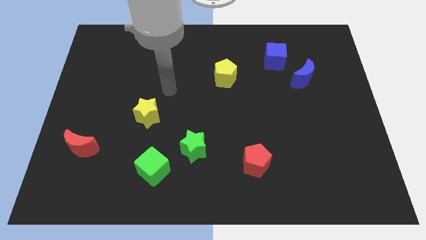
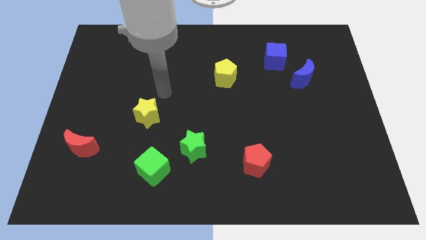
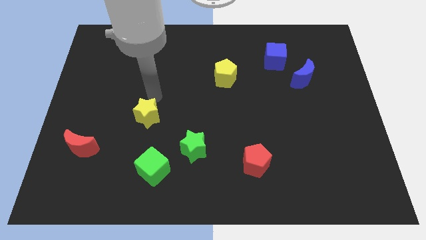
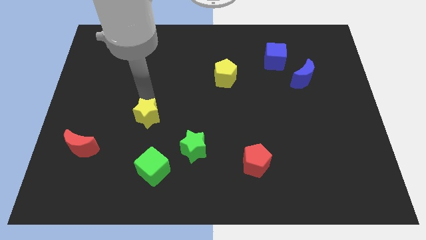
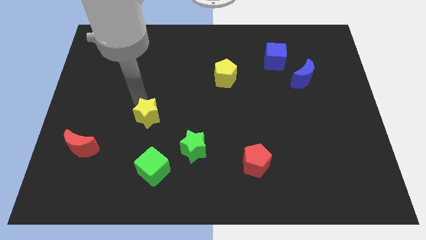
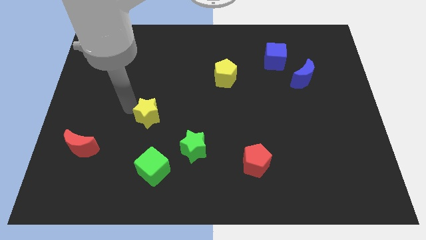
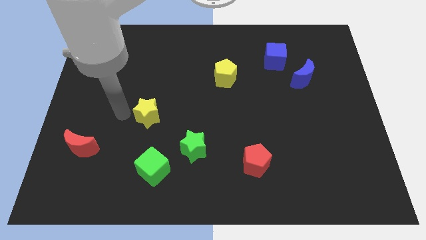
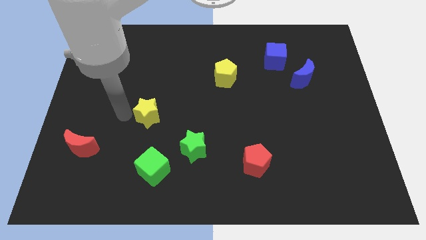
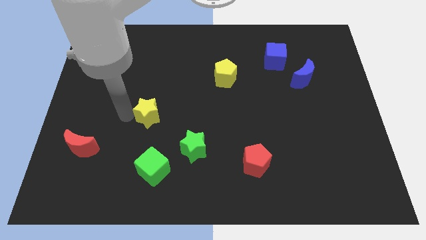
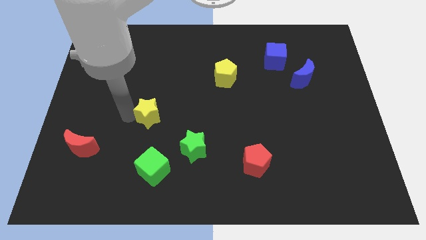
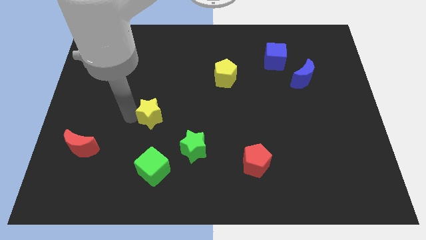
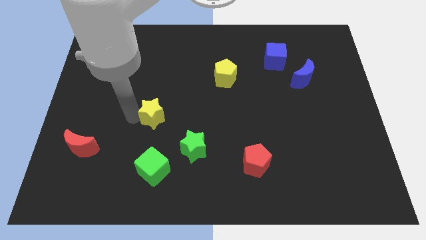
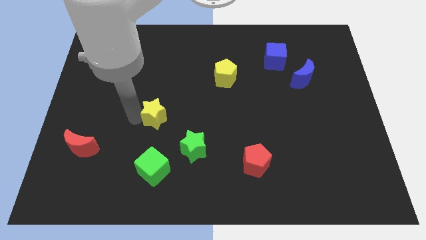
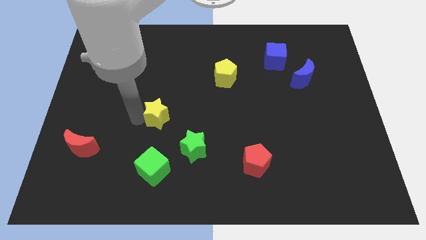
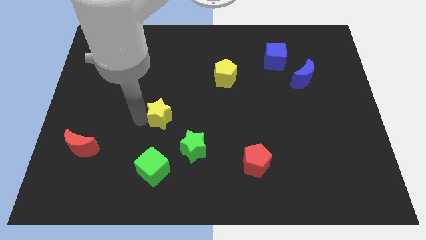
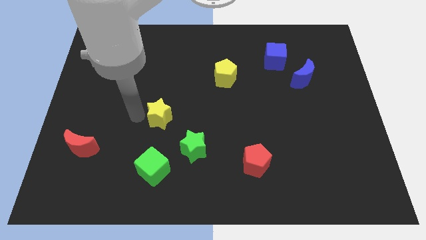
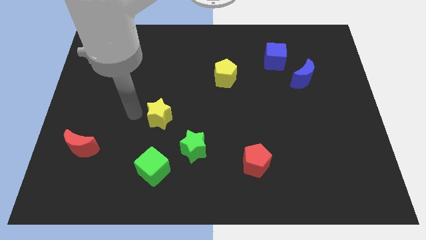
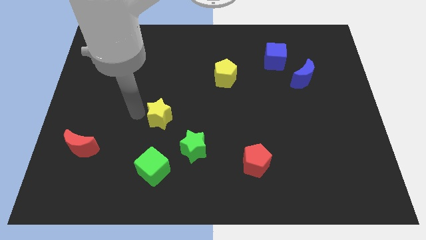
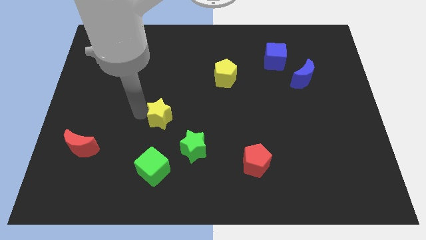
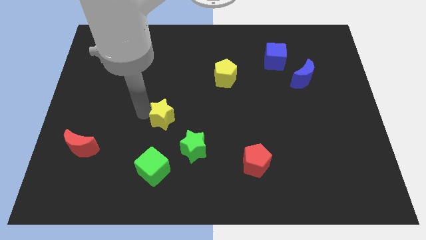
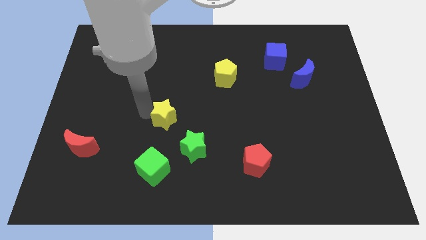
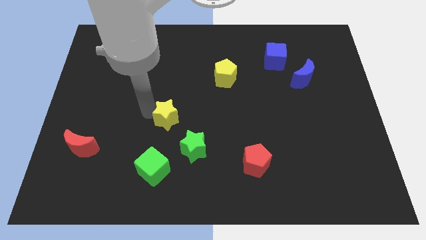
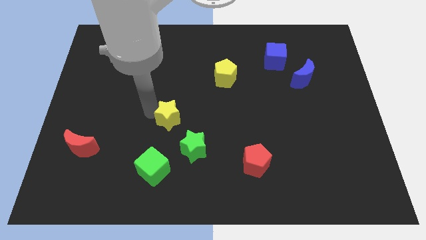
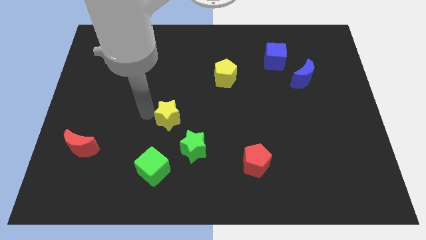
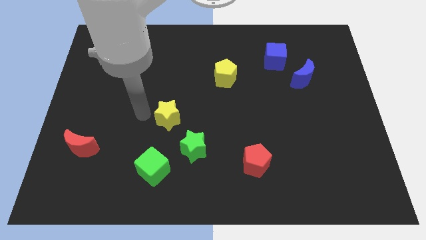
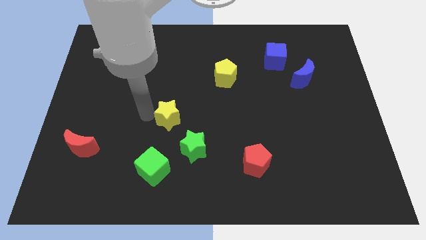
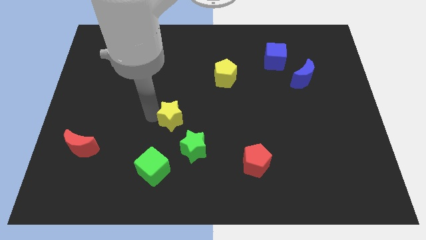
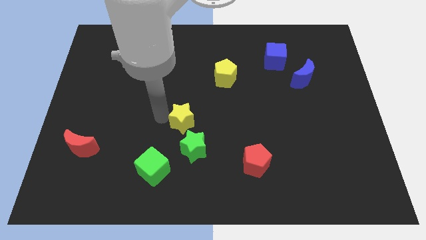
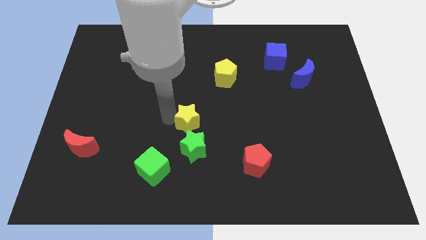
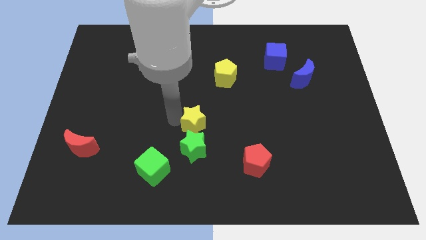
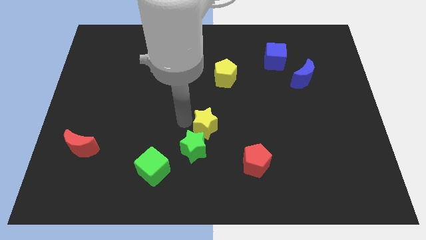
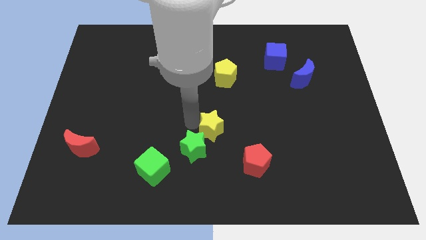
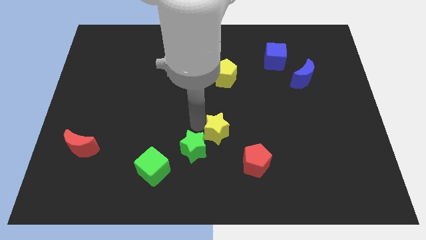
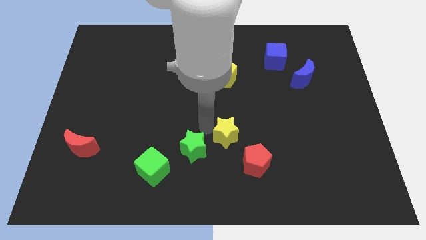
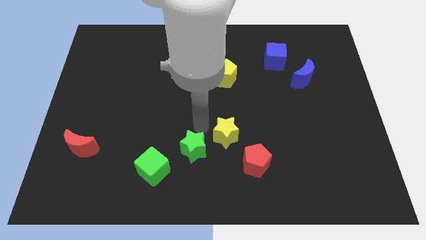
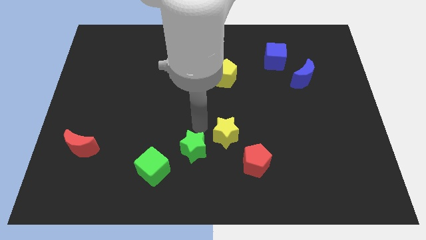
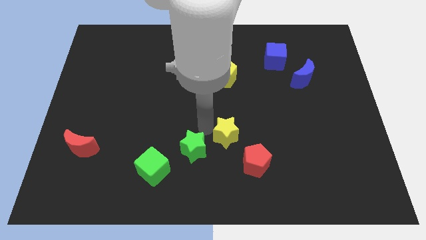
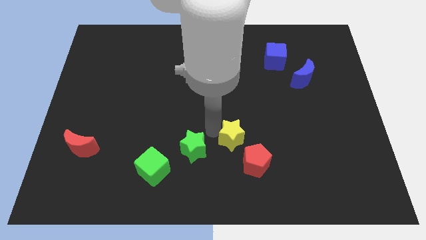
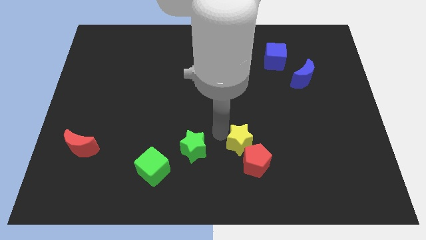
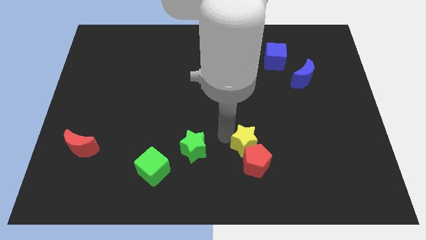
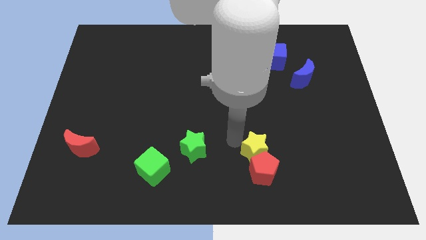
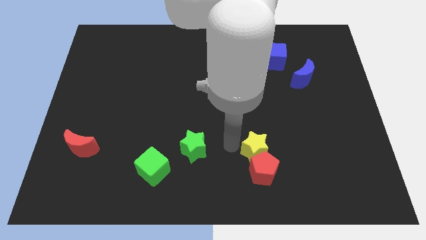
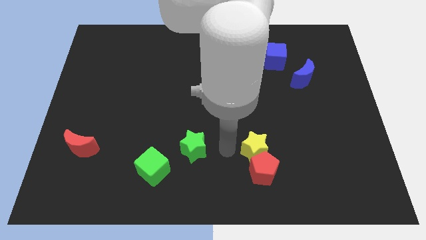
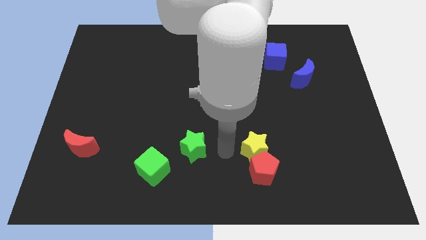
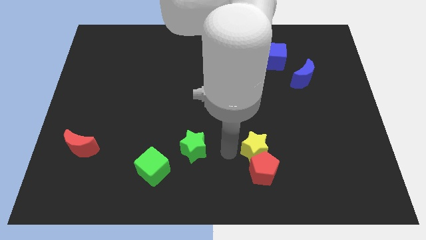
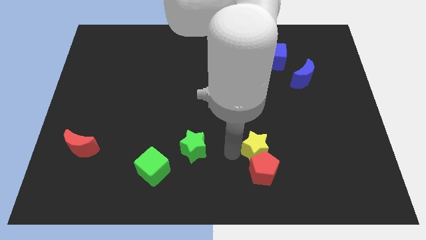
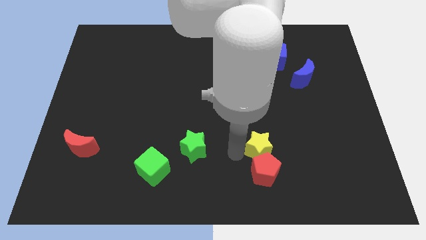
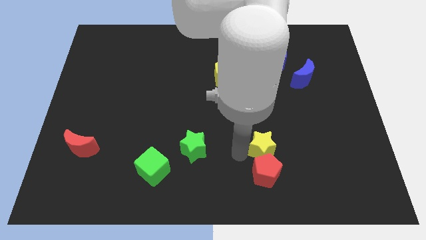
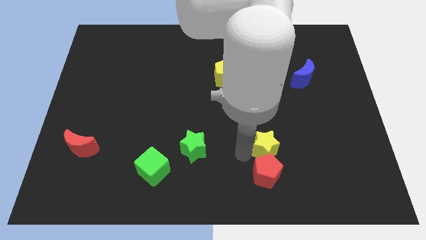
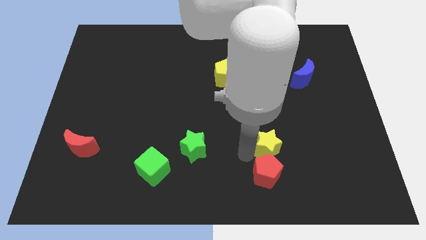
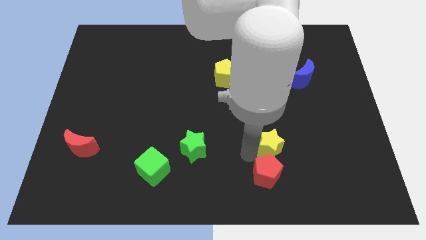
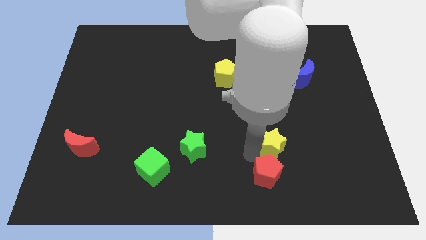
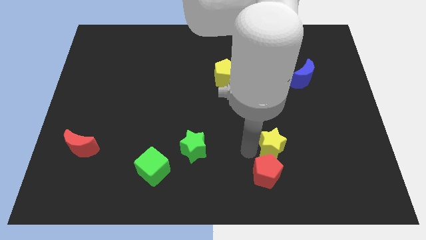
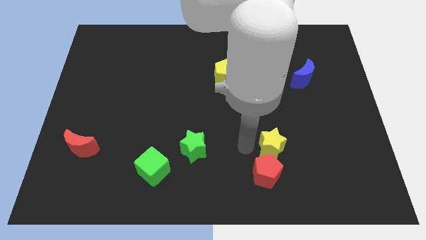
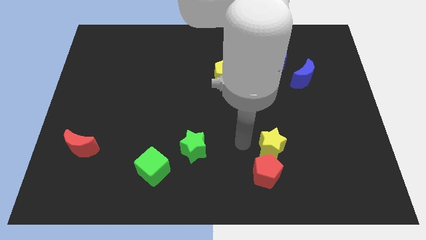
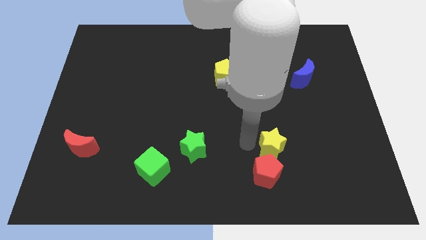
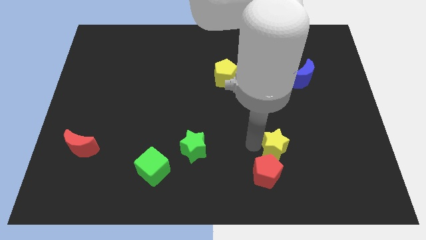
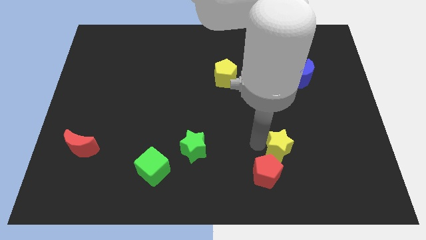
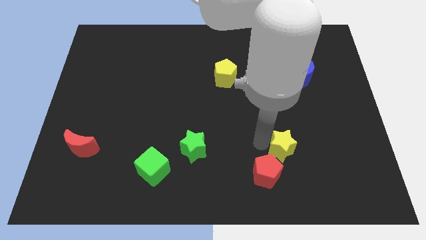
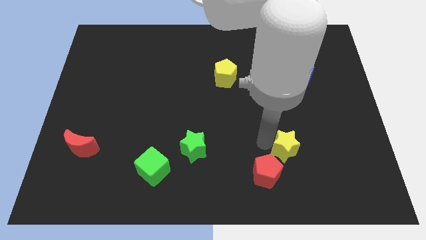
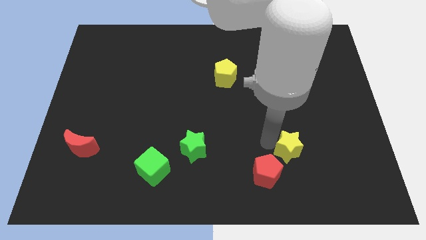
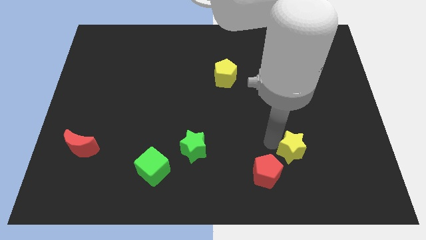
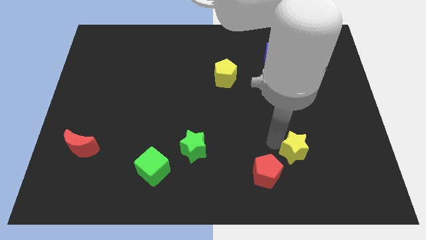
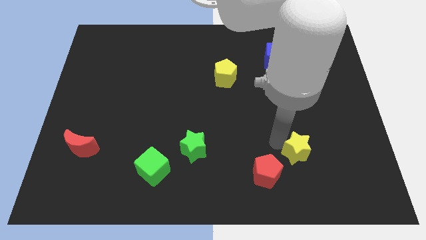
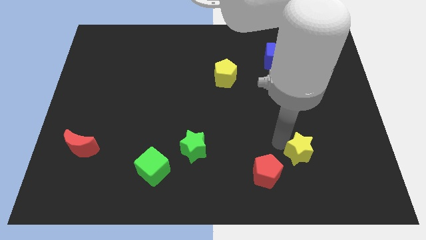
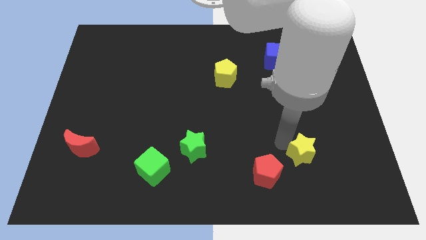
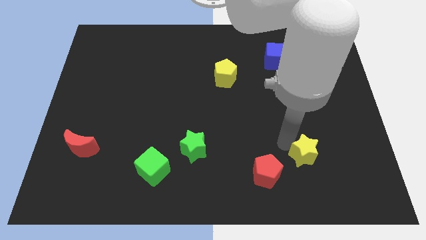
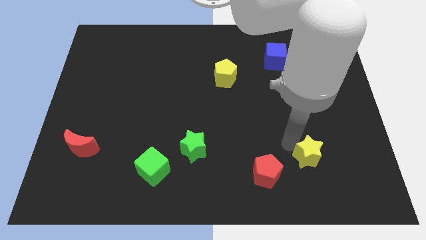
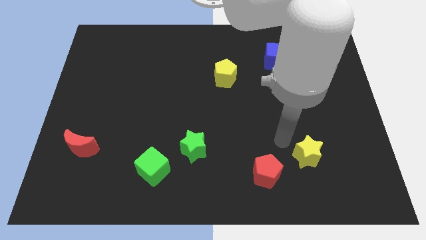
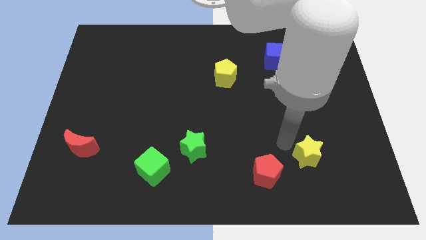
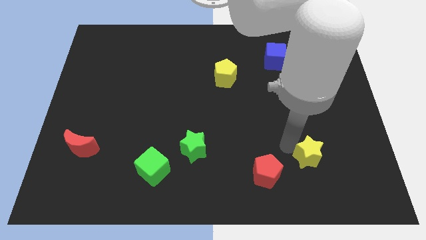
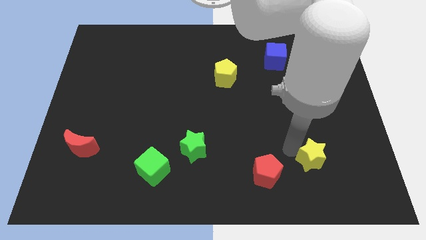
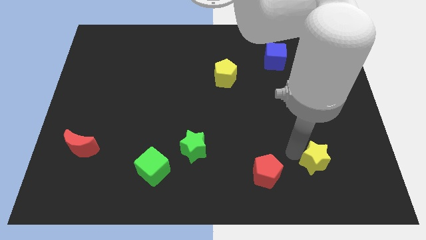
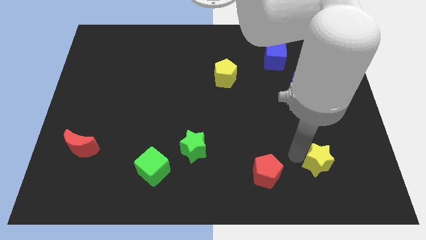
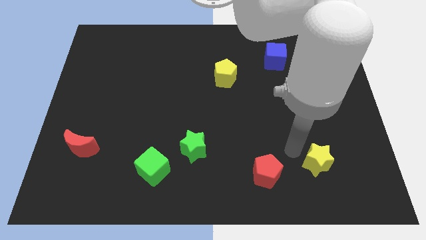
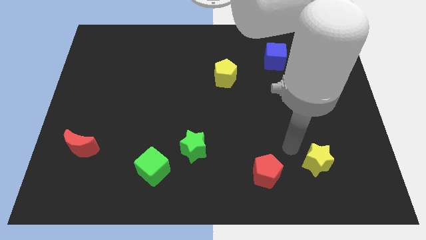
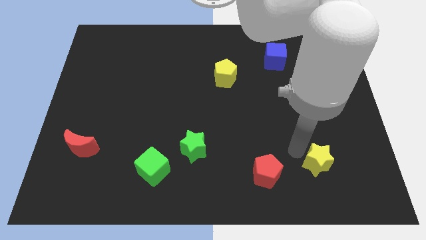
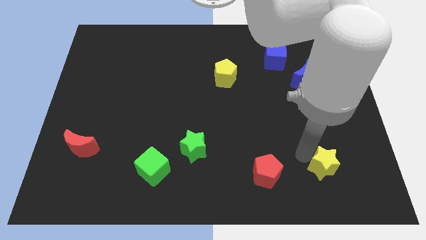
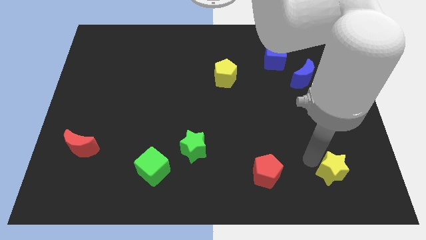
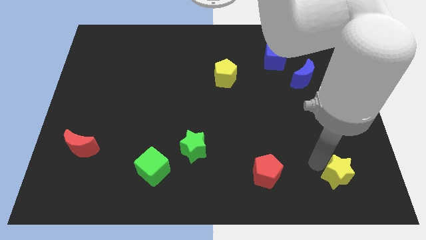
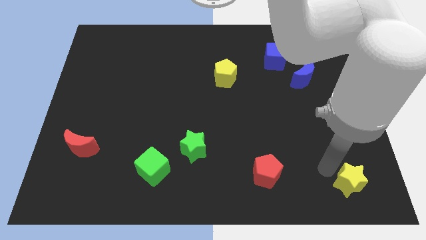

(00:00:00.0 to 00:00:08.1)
slide the yellow star to the bottom right
